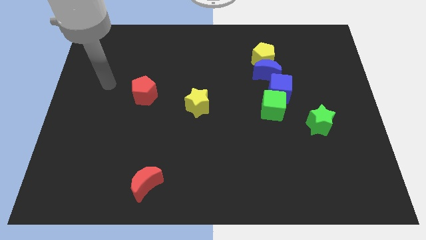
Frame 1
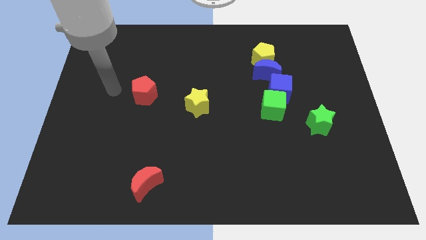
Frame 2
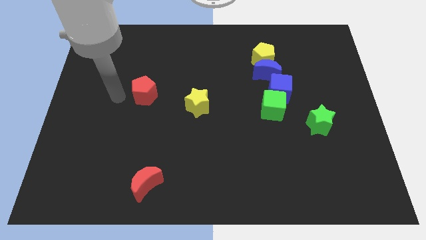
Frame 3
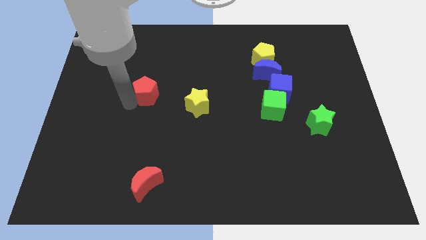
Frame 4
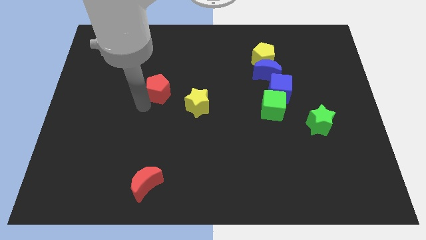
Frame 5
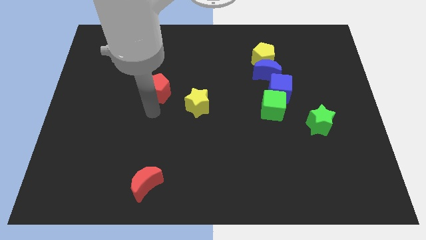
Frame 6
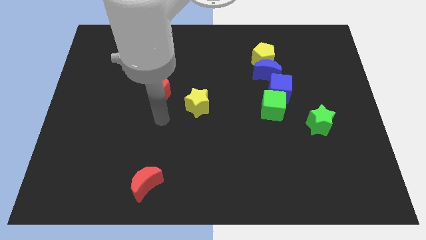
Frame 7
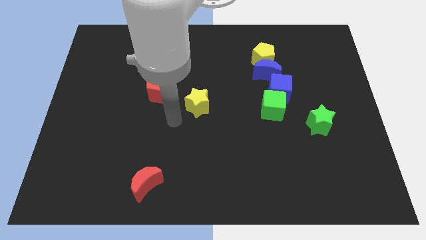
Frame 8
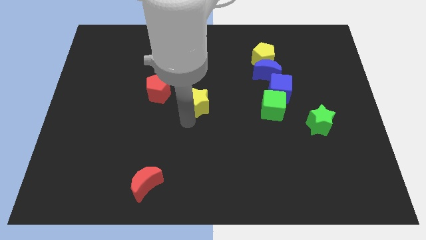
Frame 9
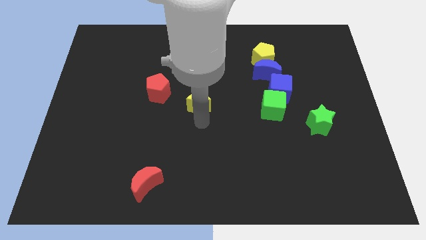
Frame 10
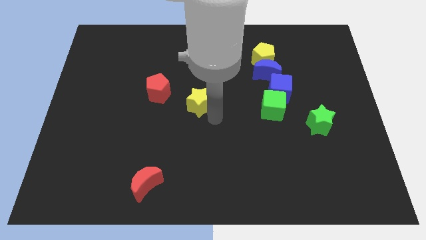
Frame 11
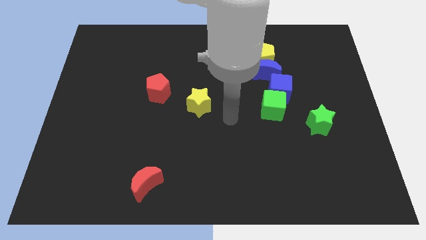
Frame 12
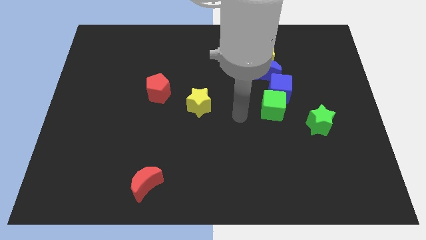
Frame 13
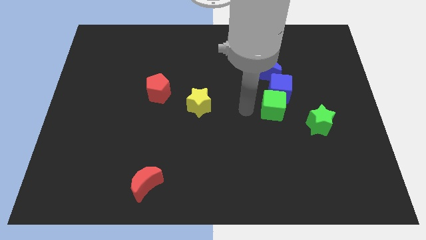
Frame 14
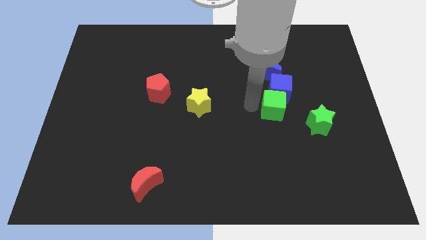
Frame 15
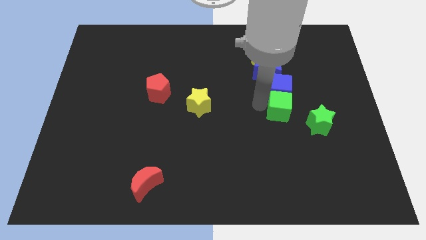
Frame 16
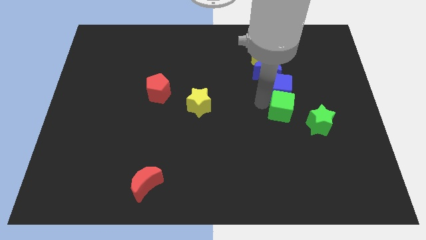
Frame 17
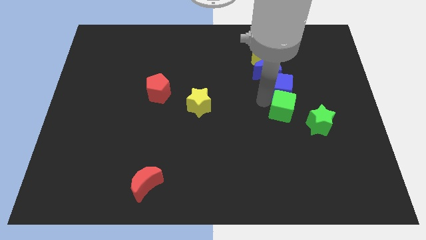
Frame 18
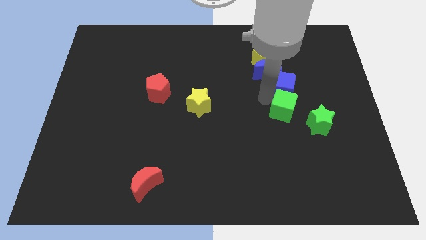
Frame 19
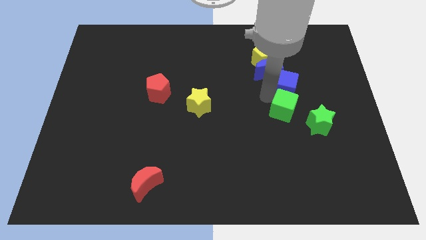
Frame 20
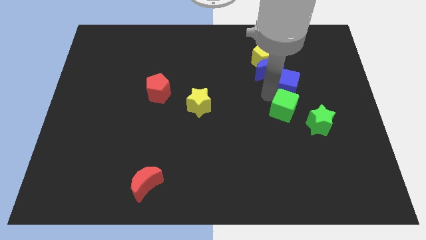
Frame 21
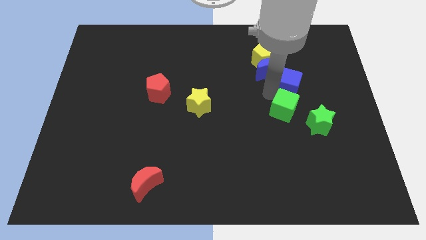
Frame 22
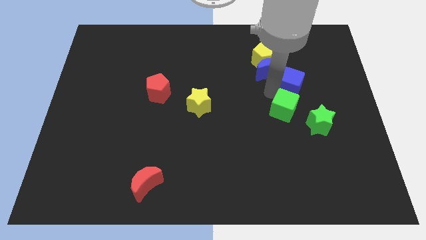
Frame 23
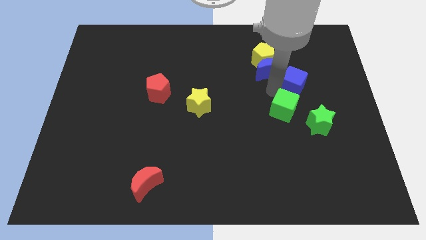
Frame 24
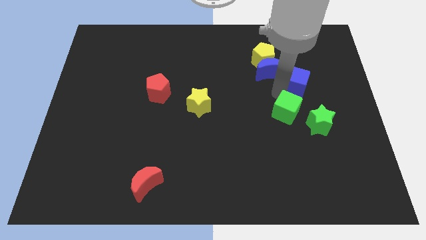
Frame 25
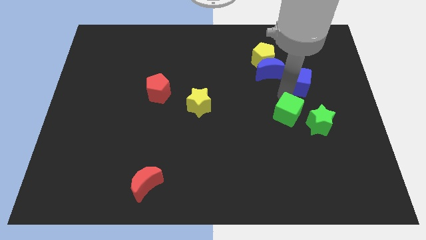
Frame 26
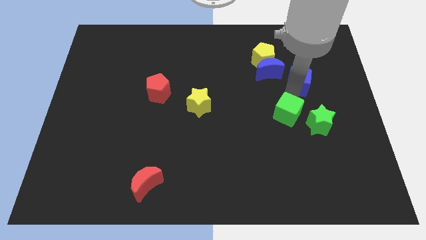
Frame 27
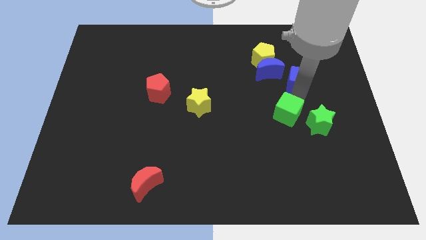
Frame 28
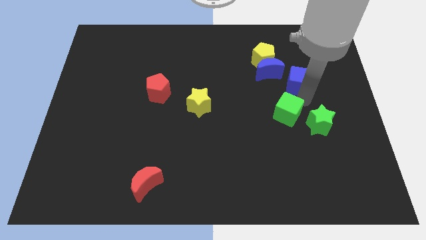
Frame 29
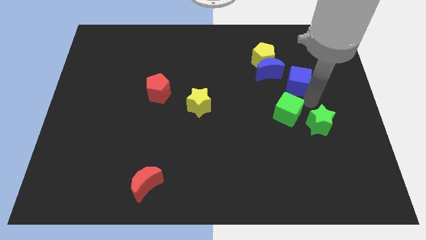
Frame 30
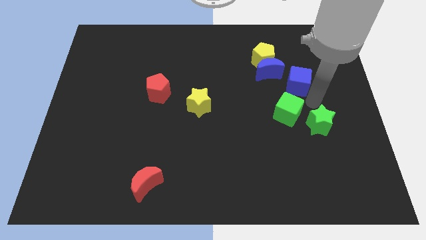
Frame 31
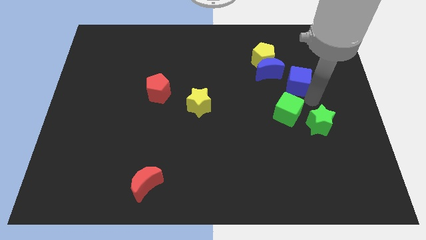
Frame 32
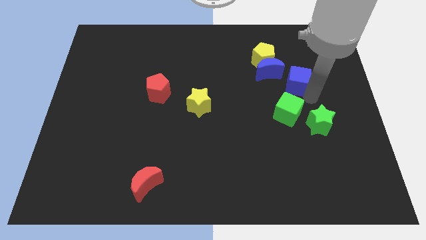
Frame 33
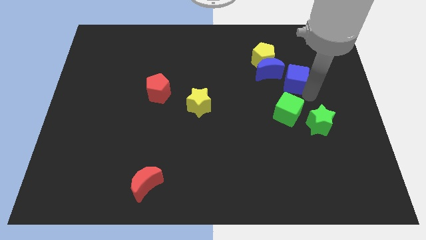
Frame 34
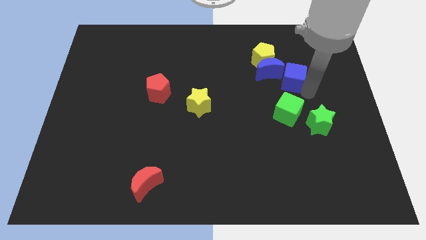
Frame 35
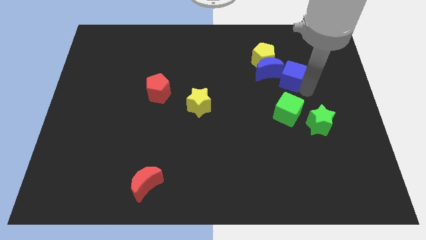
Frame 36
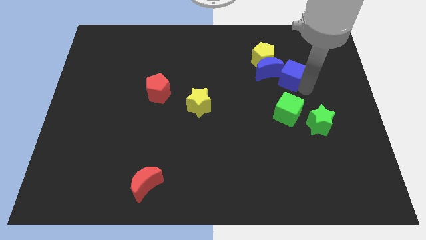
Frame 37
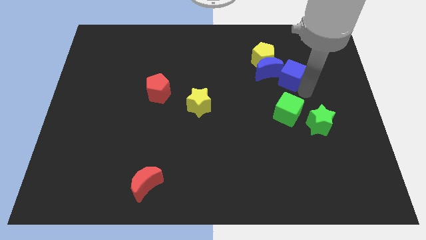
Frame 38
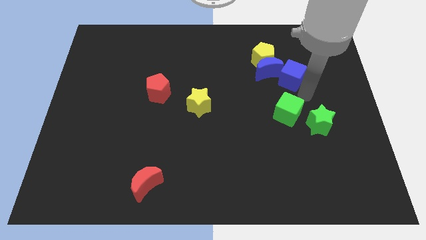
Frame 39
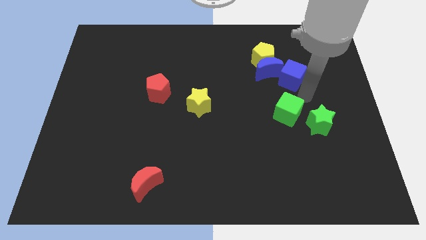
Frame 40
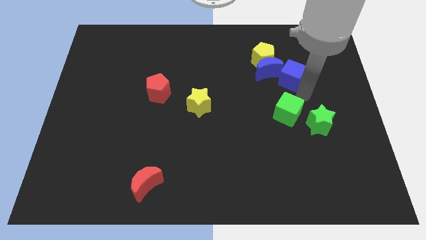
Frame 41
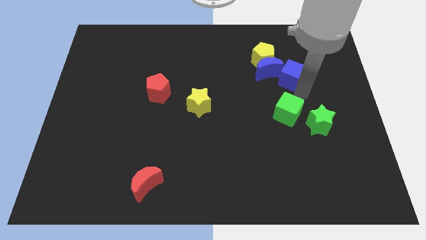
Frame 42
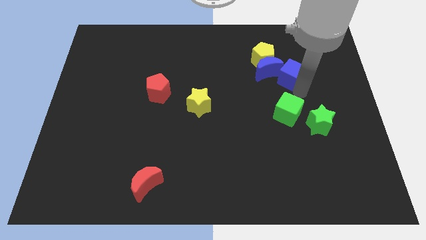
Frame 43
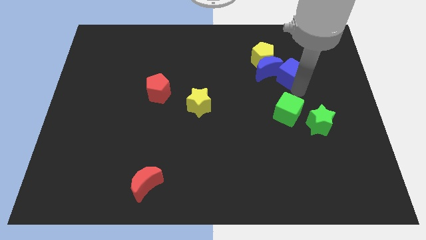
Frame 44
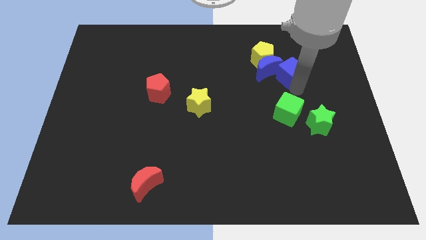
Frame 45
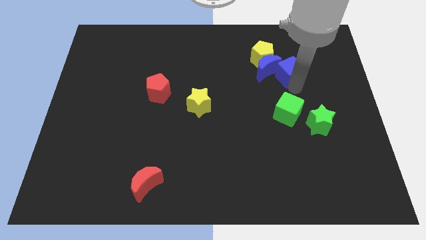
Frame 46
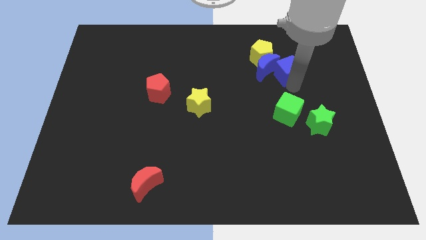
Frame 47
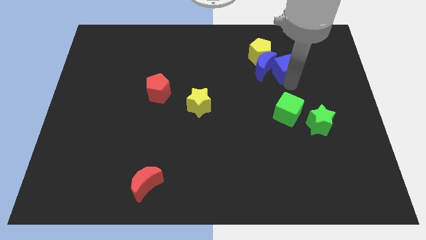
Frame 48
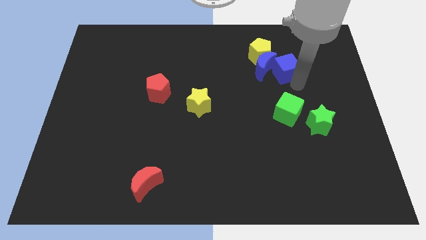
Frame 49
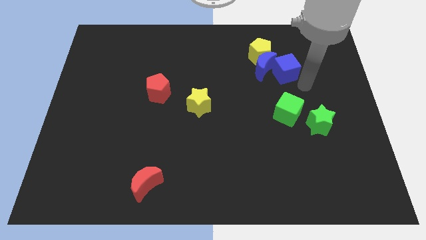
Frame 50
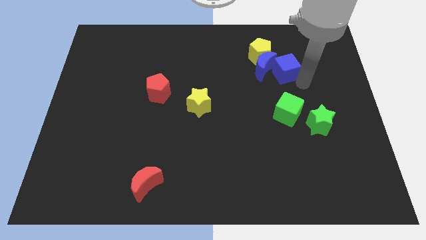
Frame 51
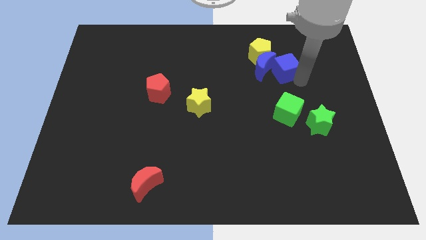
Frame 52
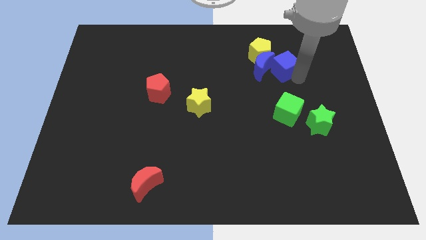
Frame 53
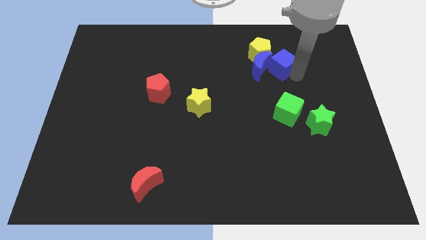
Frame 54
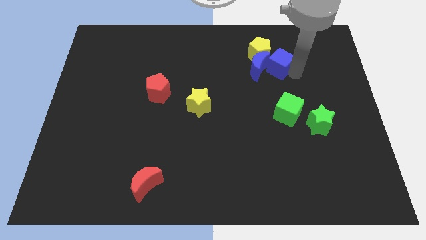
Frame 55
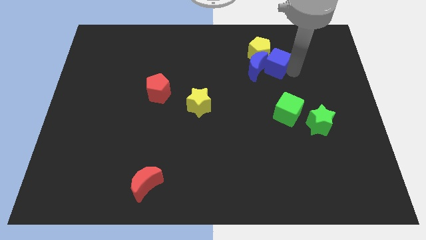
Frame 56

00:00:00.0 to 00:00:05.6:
push the blue cube towards the yellow pentagon

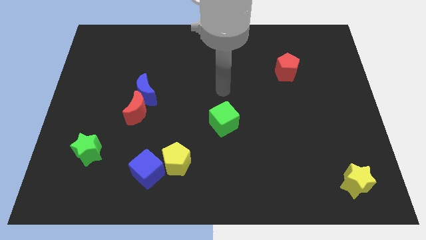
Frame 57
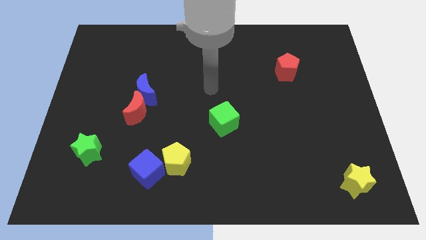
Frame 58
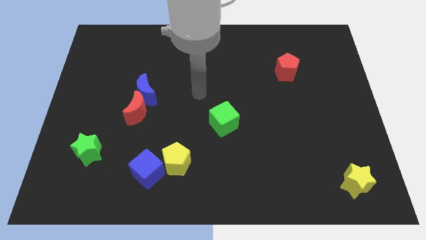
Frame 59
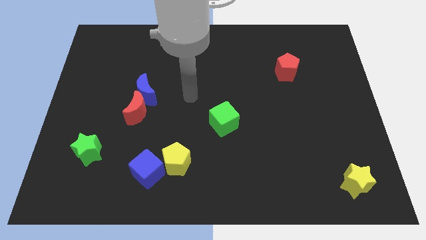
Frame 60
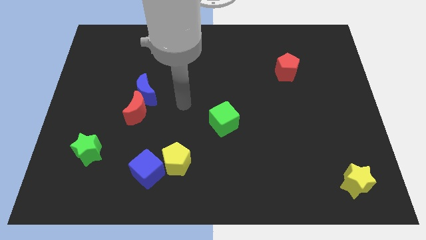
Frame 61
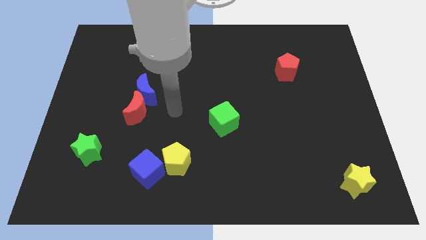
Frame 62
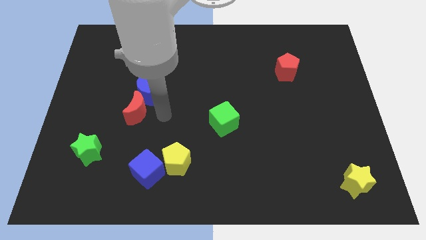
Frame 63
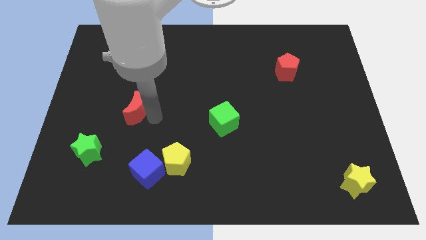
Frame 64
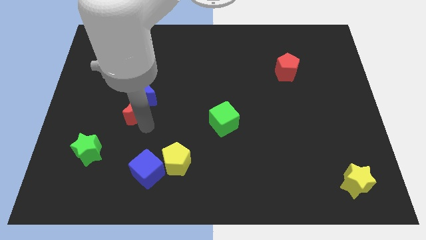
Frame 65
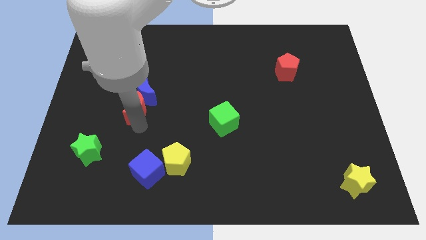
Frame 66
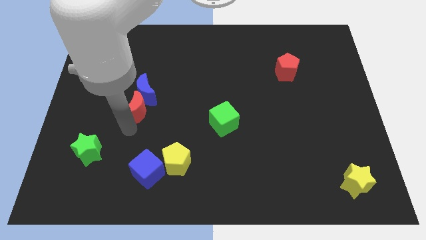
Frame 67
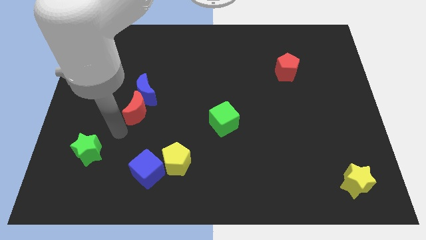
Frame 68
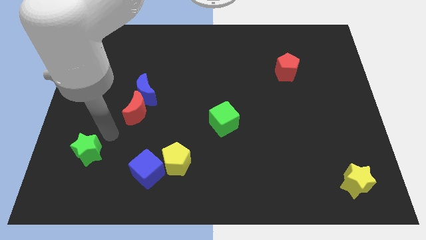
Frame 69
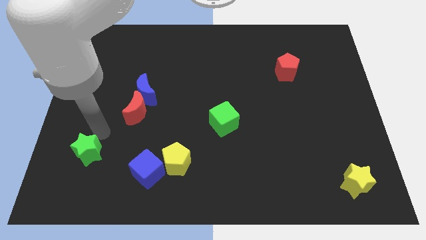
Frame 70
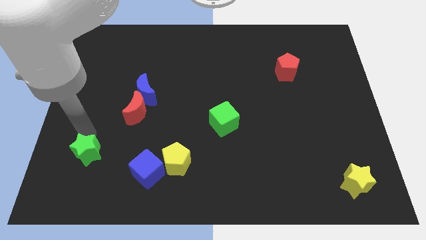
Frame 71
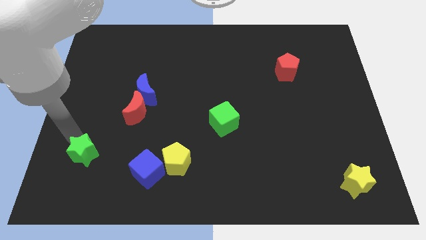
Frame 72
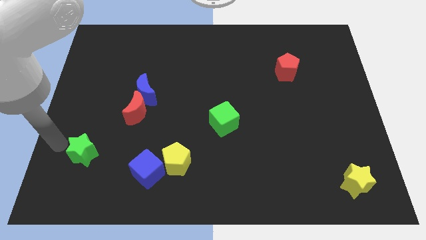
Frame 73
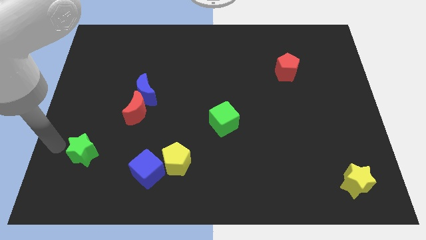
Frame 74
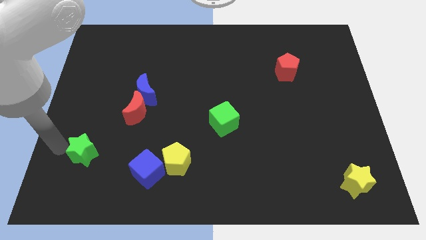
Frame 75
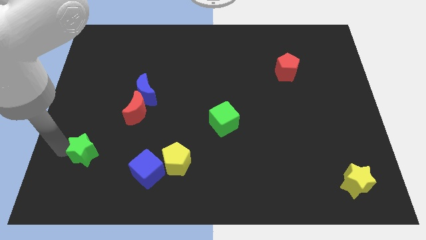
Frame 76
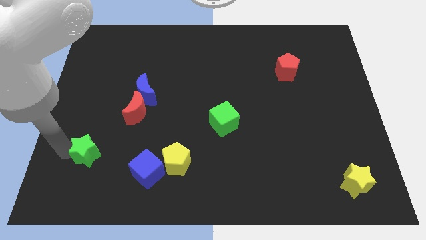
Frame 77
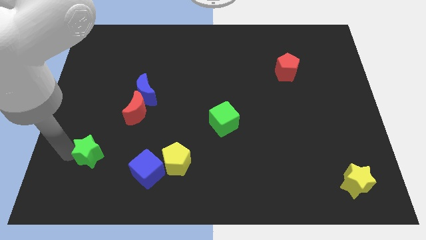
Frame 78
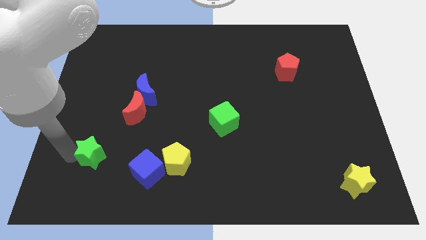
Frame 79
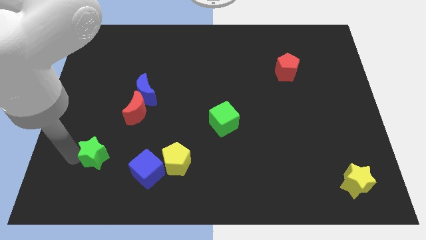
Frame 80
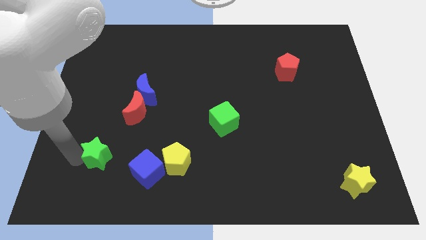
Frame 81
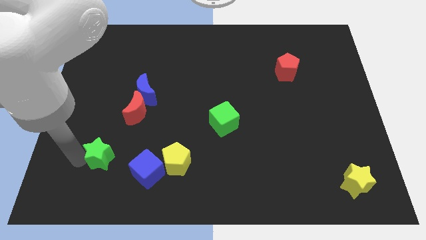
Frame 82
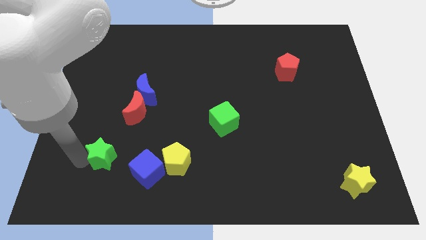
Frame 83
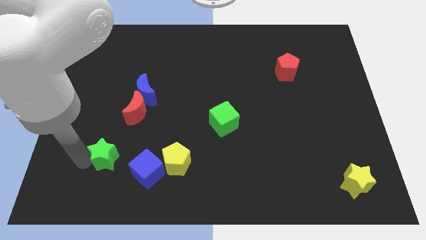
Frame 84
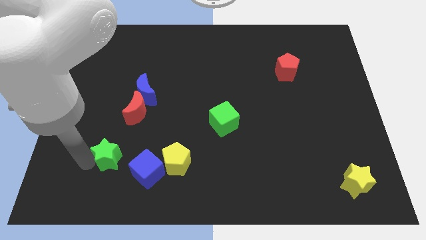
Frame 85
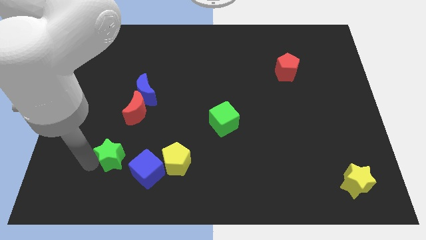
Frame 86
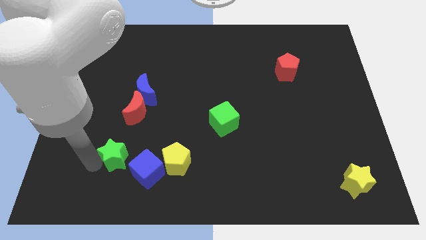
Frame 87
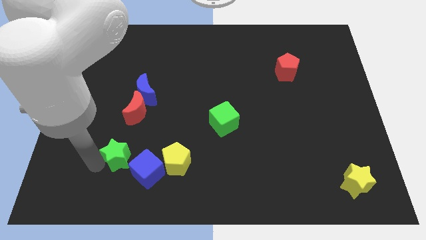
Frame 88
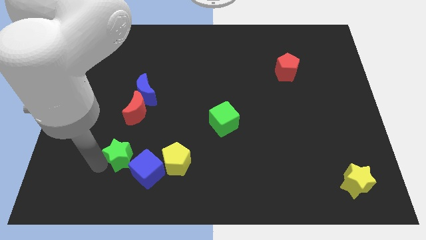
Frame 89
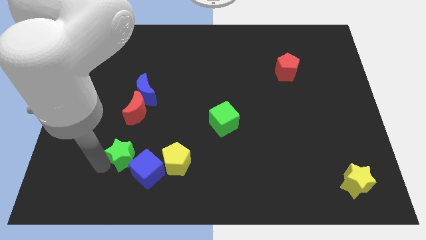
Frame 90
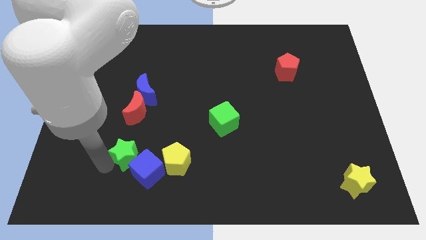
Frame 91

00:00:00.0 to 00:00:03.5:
slide the green star close to the blue cube
